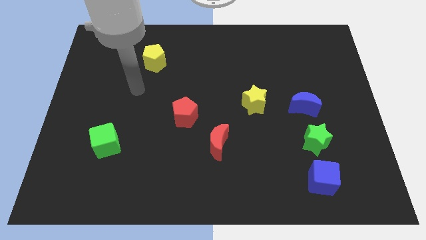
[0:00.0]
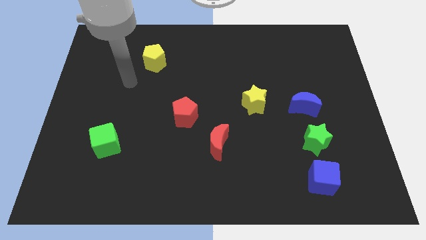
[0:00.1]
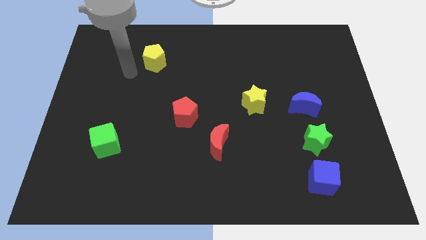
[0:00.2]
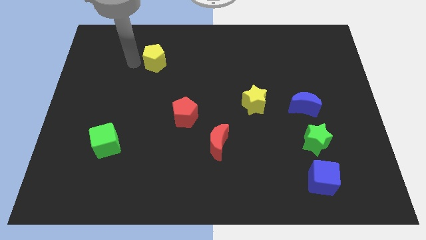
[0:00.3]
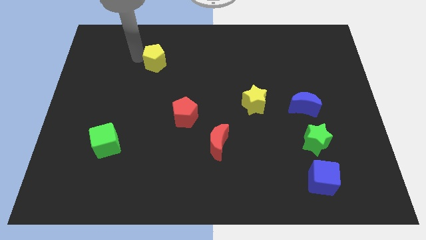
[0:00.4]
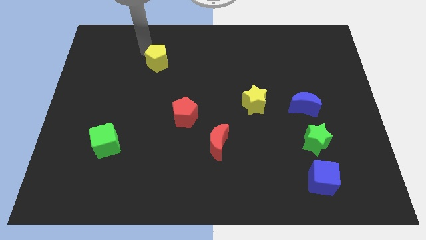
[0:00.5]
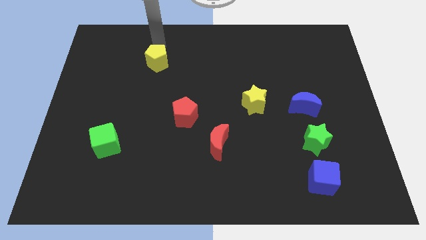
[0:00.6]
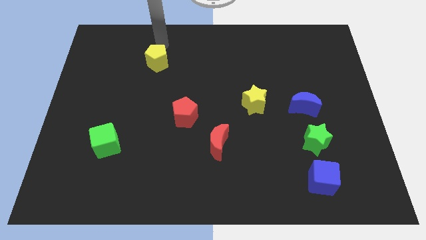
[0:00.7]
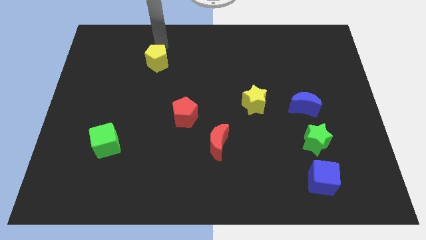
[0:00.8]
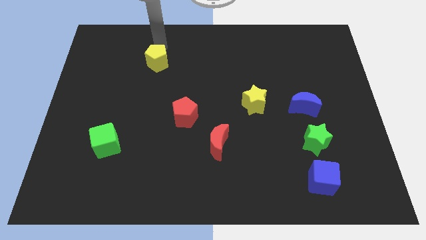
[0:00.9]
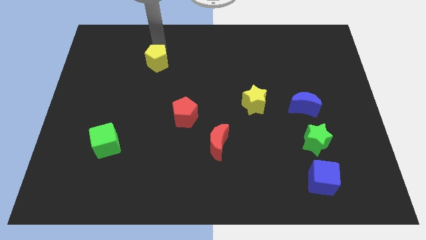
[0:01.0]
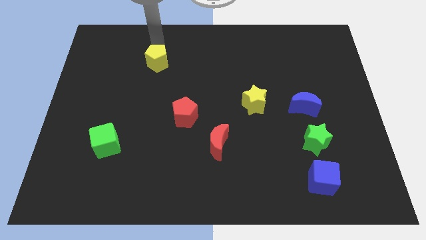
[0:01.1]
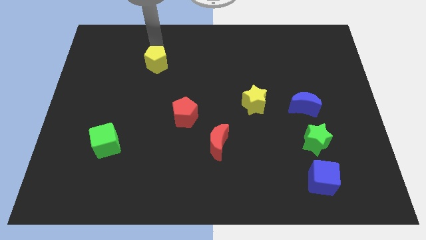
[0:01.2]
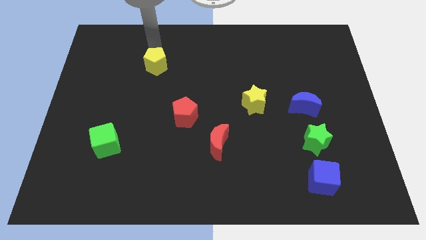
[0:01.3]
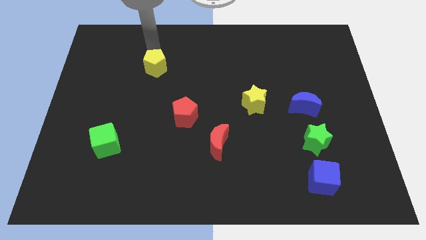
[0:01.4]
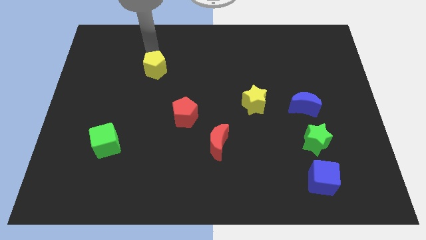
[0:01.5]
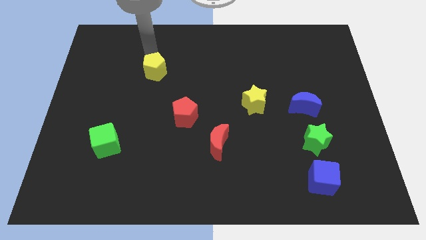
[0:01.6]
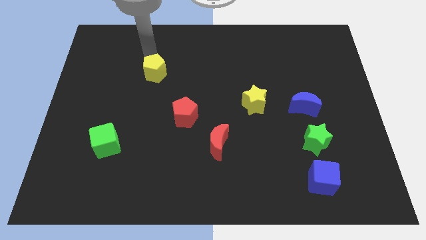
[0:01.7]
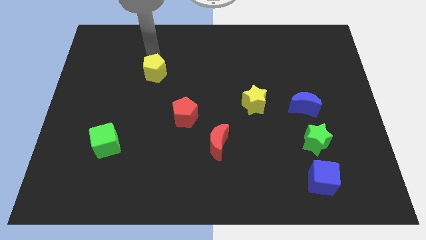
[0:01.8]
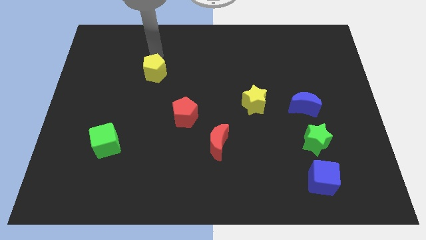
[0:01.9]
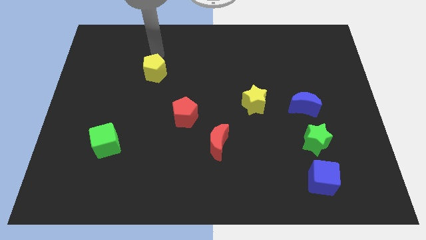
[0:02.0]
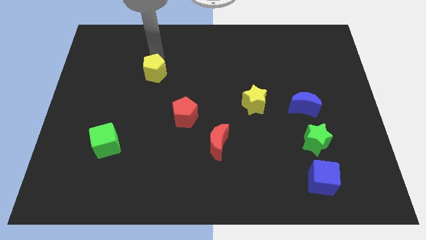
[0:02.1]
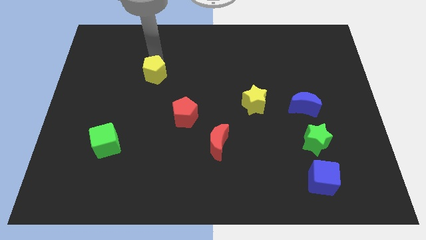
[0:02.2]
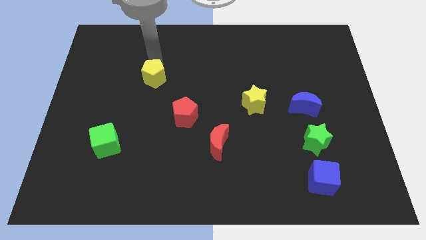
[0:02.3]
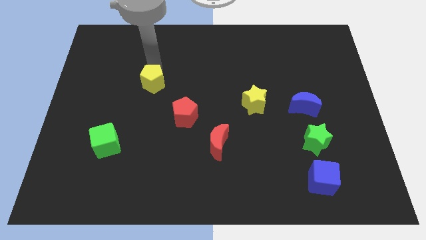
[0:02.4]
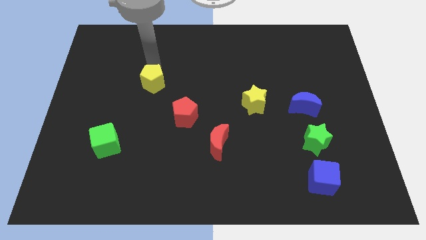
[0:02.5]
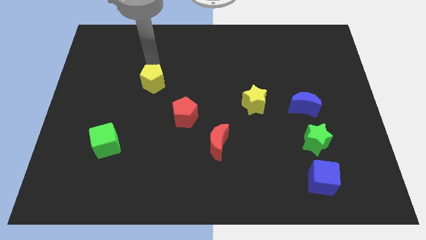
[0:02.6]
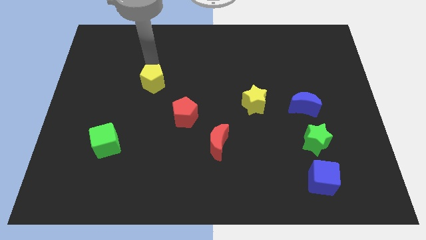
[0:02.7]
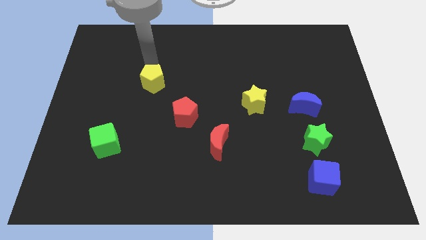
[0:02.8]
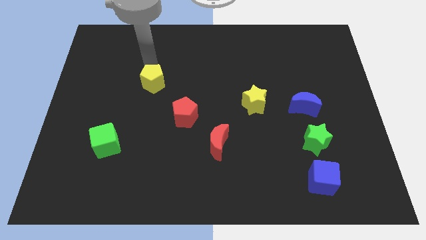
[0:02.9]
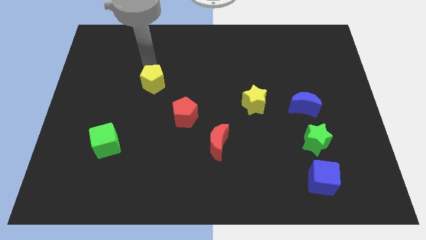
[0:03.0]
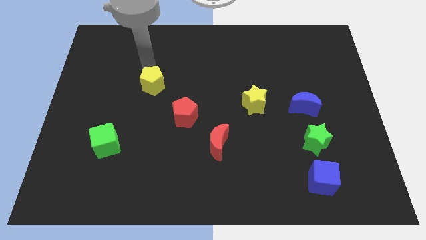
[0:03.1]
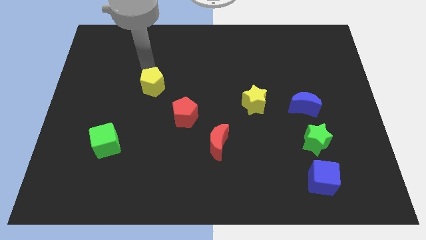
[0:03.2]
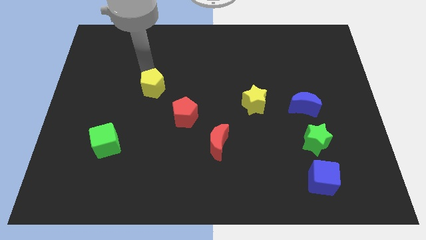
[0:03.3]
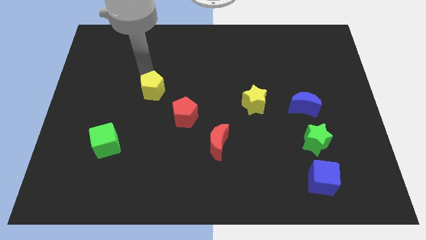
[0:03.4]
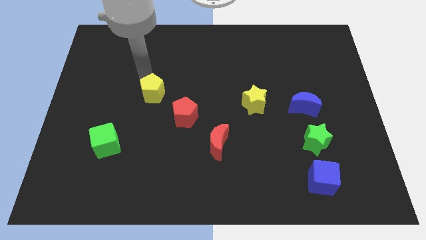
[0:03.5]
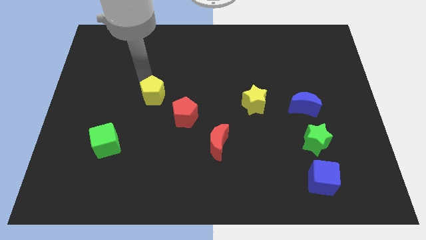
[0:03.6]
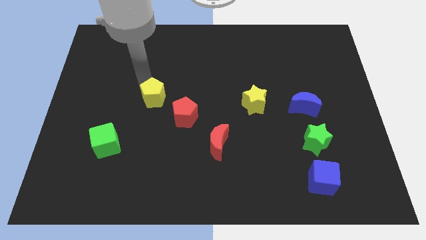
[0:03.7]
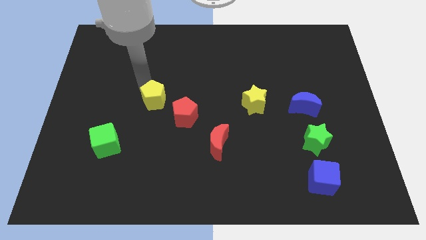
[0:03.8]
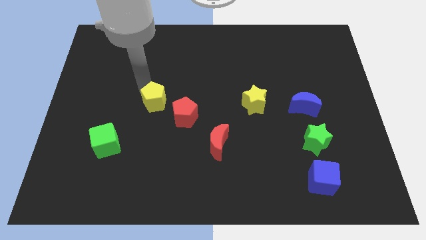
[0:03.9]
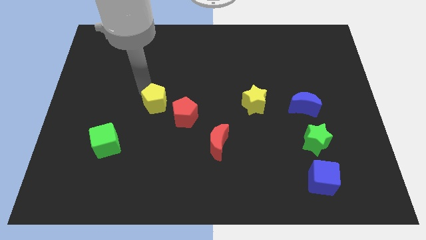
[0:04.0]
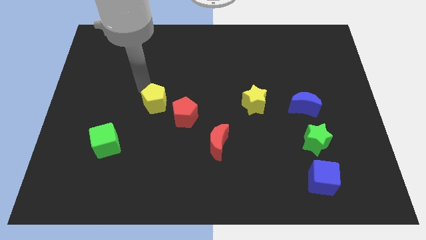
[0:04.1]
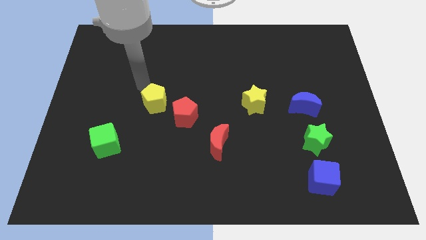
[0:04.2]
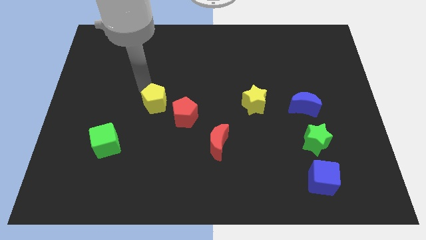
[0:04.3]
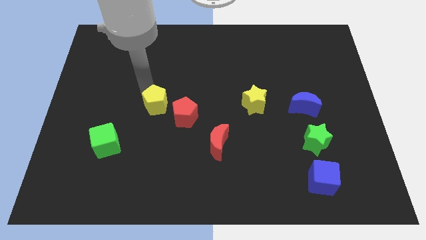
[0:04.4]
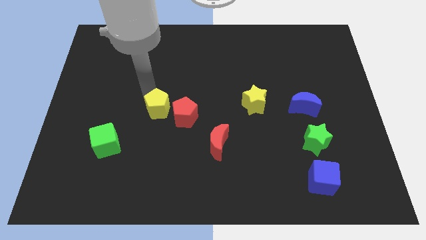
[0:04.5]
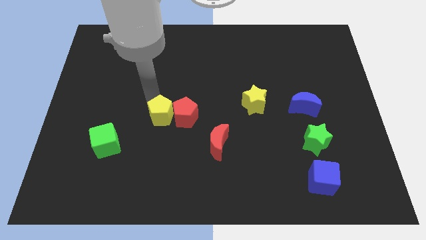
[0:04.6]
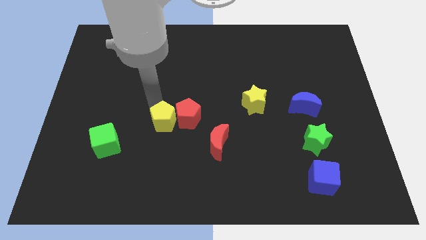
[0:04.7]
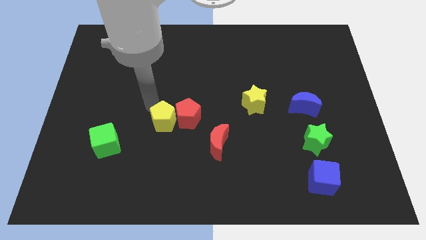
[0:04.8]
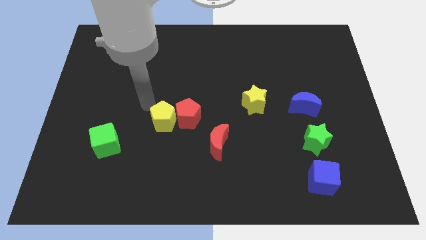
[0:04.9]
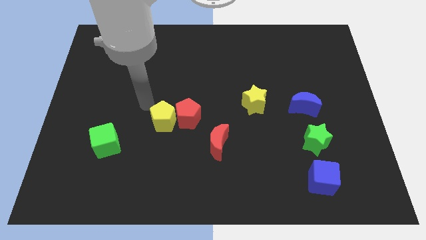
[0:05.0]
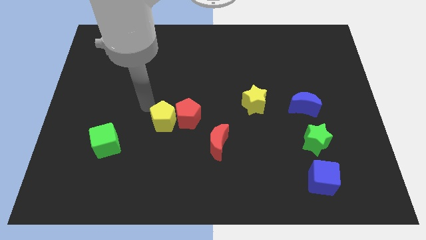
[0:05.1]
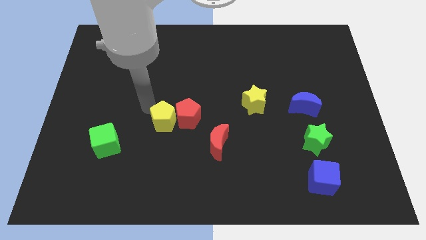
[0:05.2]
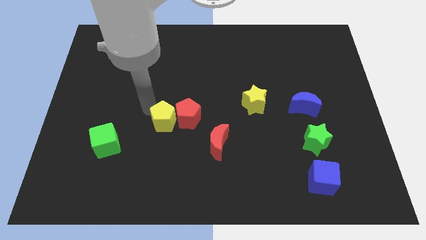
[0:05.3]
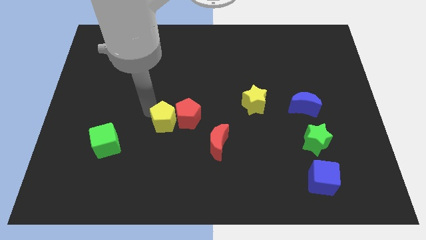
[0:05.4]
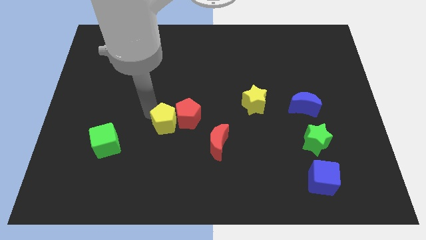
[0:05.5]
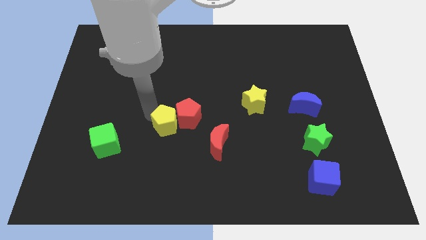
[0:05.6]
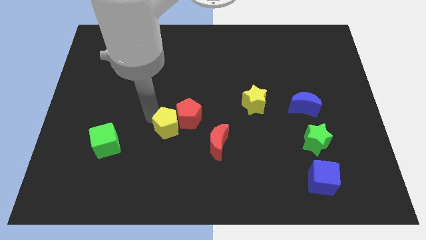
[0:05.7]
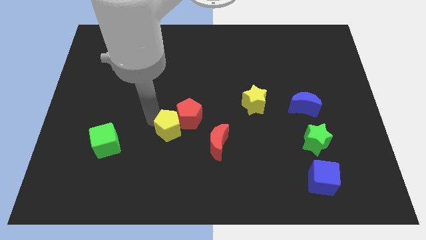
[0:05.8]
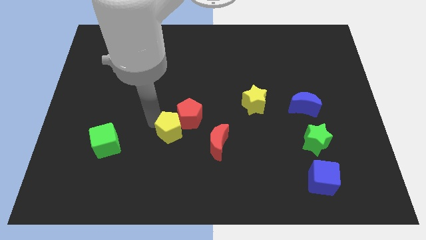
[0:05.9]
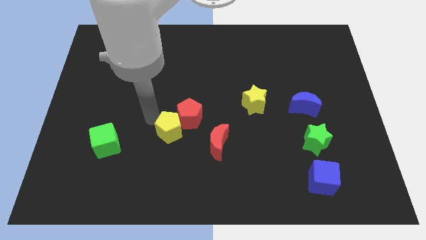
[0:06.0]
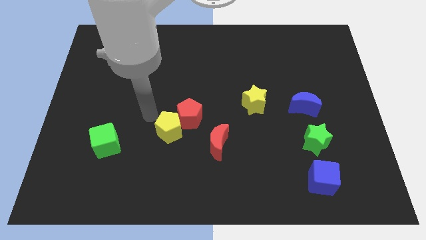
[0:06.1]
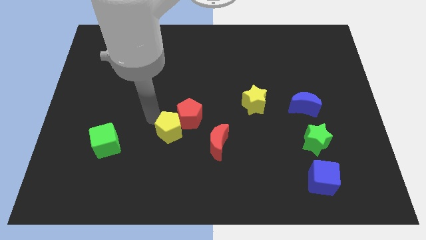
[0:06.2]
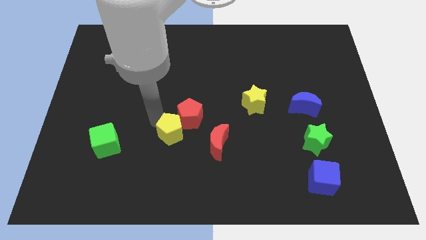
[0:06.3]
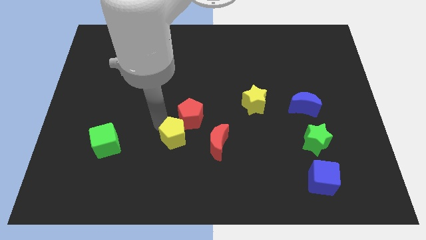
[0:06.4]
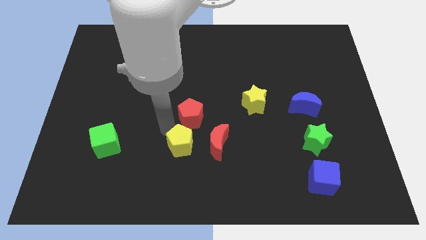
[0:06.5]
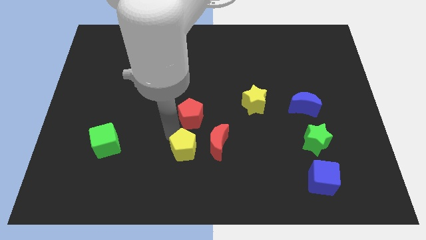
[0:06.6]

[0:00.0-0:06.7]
push the yellow pentagon to the bottom left of the red moon

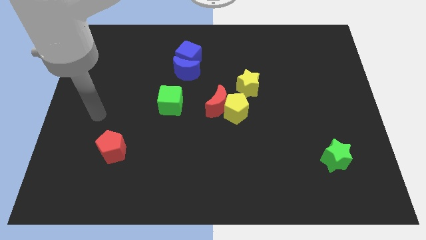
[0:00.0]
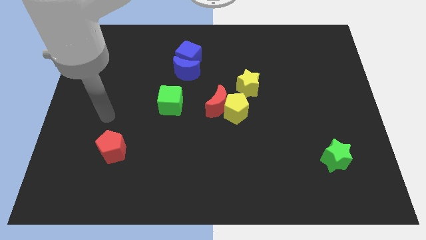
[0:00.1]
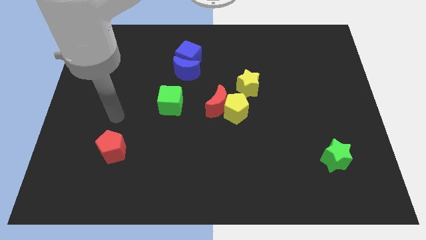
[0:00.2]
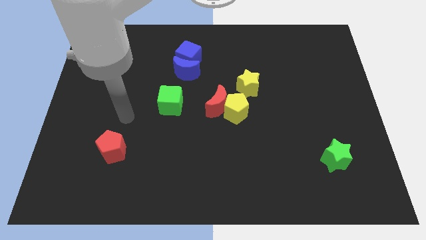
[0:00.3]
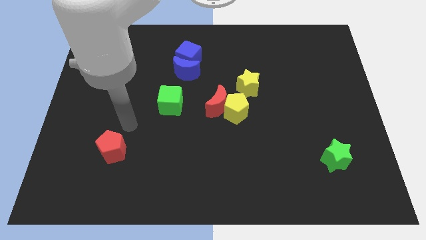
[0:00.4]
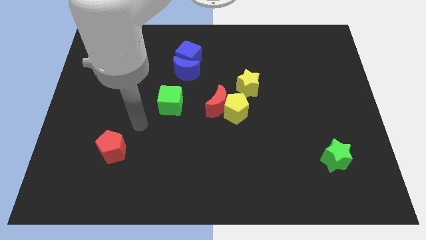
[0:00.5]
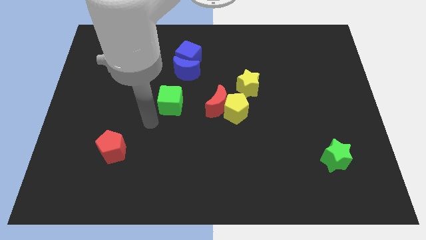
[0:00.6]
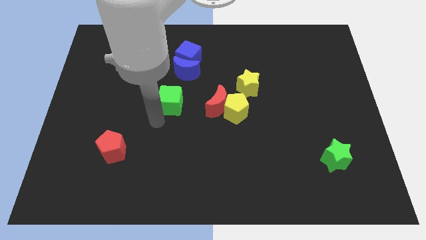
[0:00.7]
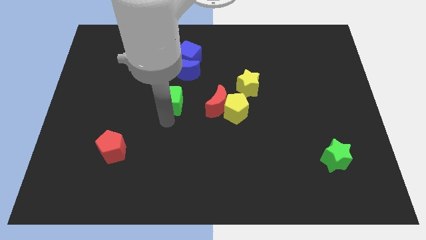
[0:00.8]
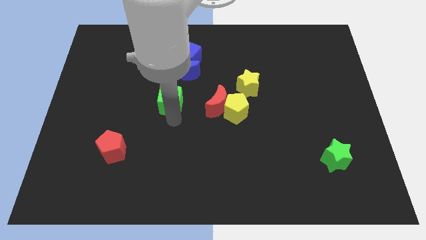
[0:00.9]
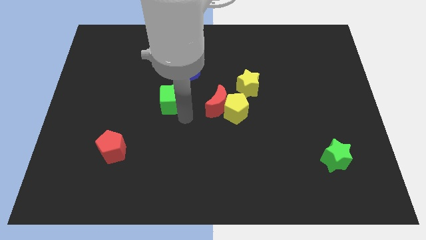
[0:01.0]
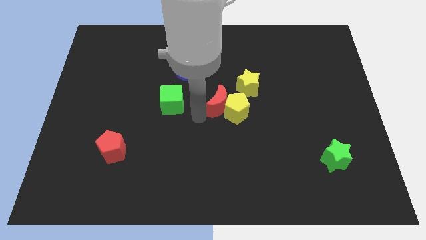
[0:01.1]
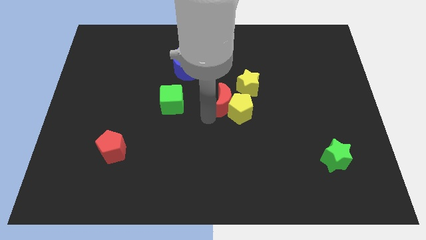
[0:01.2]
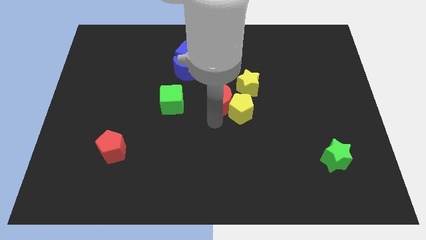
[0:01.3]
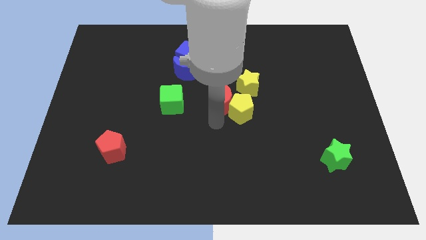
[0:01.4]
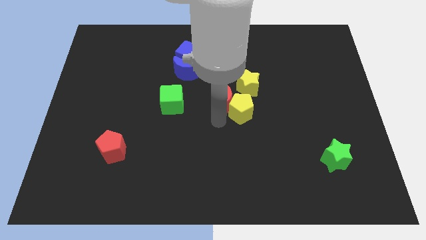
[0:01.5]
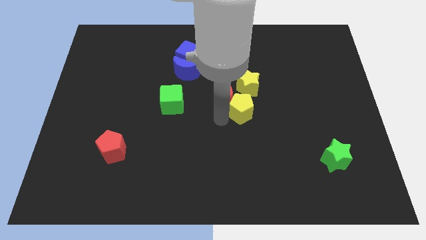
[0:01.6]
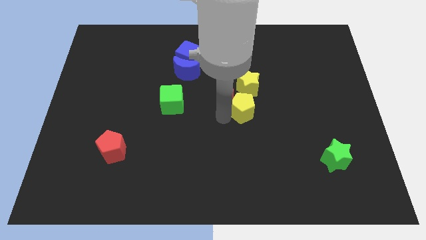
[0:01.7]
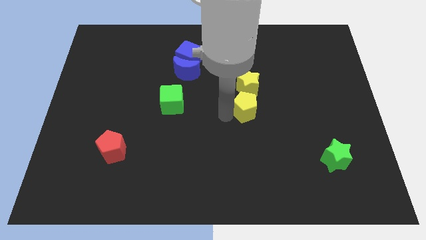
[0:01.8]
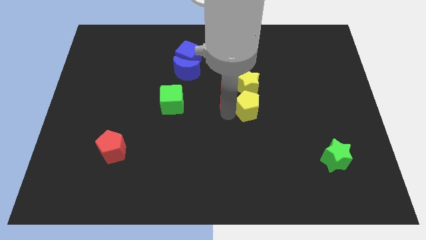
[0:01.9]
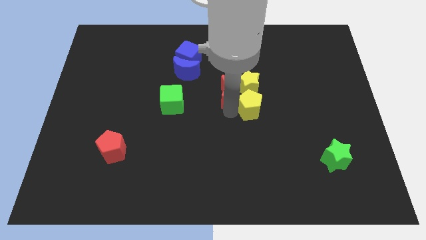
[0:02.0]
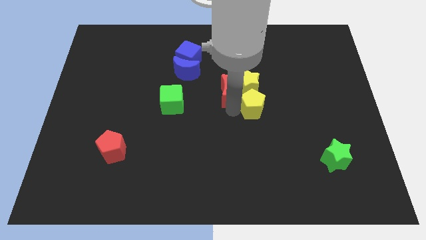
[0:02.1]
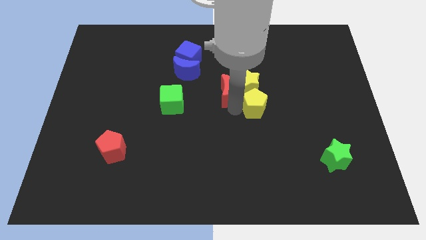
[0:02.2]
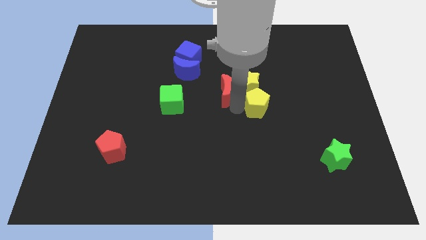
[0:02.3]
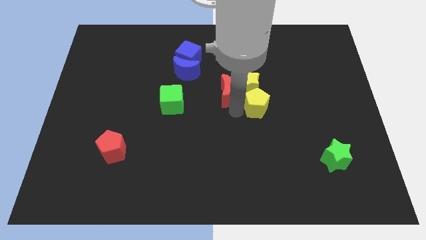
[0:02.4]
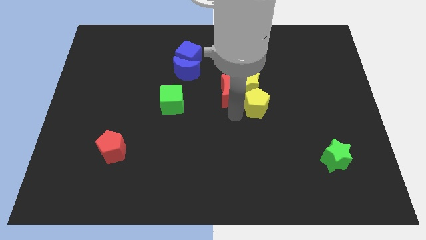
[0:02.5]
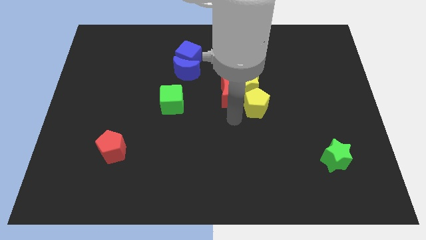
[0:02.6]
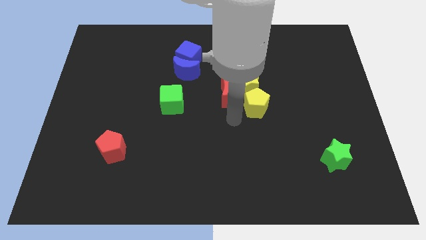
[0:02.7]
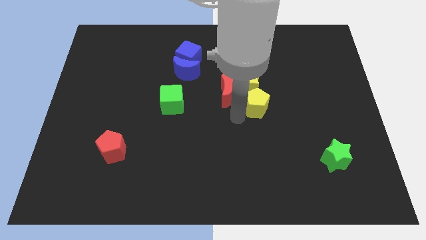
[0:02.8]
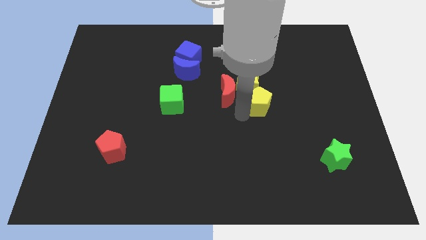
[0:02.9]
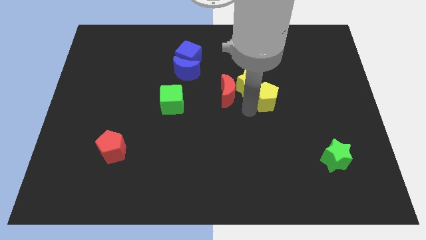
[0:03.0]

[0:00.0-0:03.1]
put the yellow pentagon just right of the yellow star
